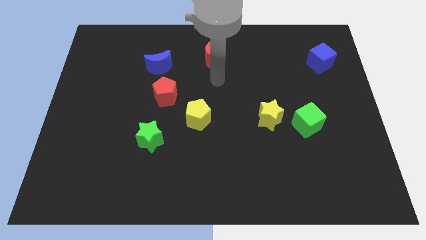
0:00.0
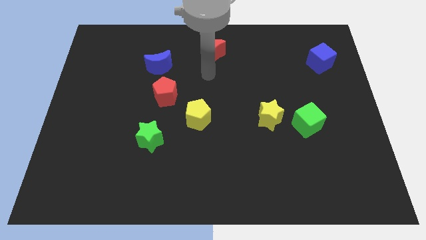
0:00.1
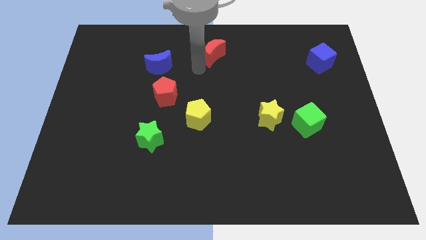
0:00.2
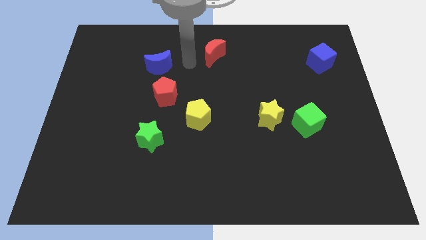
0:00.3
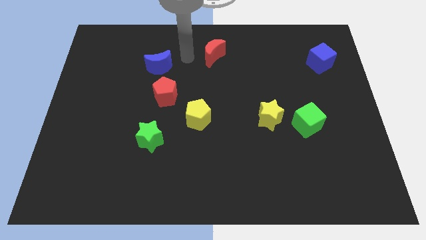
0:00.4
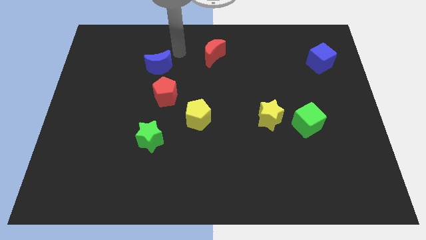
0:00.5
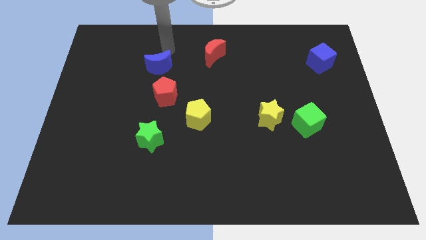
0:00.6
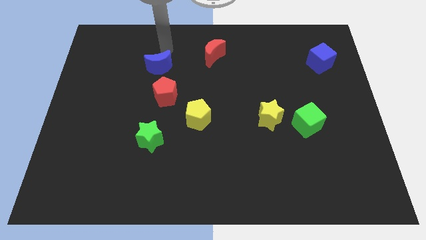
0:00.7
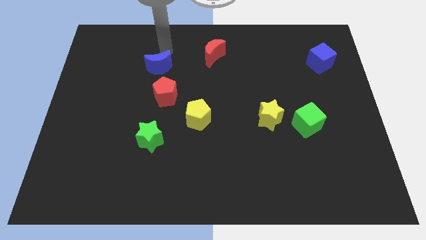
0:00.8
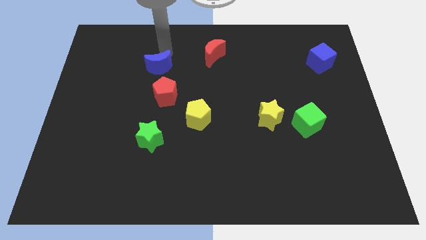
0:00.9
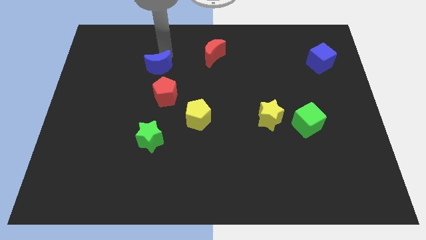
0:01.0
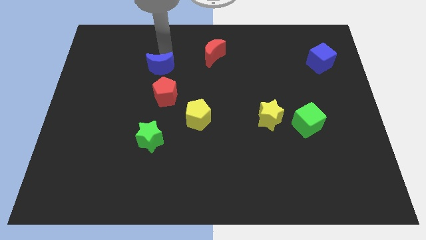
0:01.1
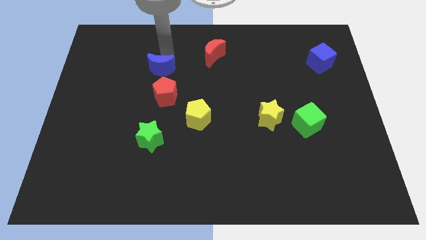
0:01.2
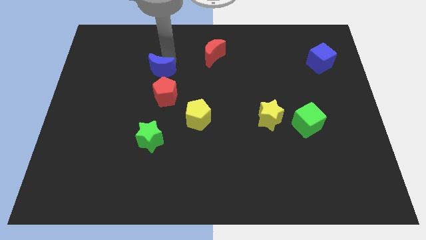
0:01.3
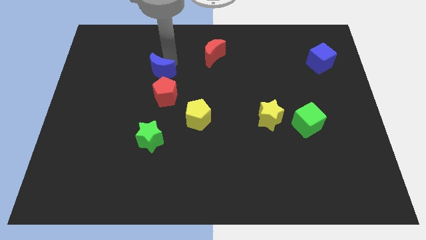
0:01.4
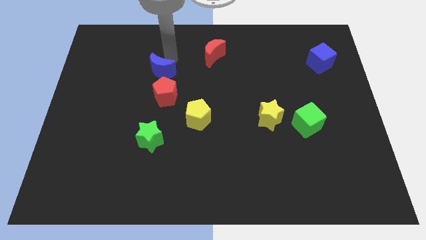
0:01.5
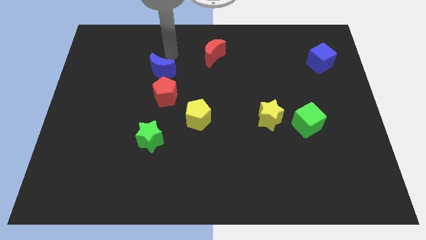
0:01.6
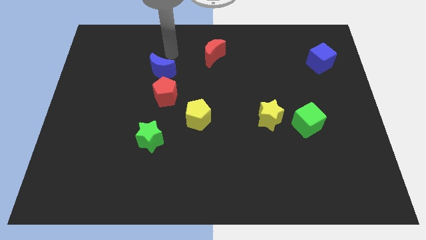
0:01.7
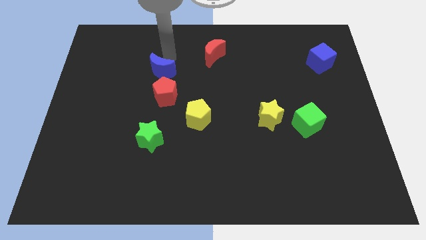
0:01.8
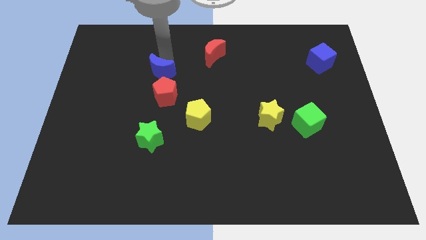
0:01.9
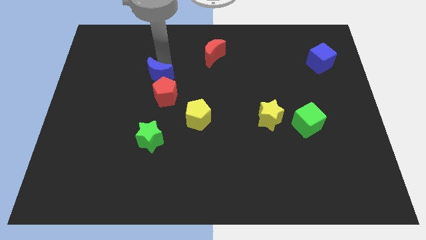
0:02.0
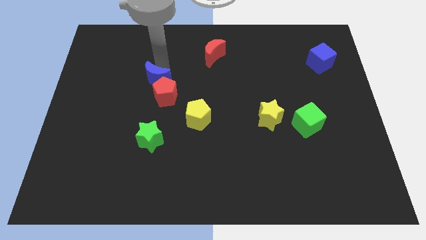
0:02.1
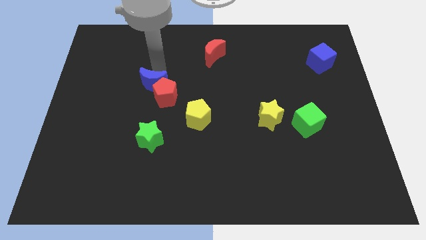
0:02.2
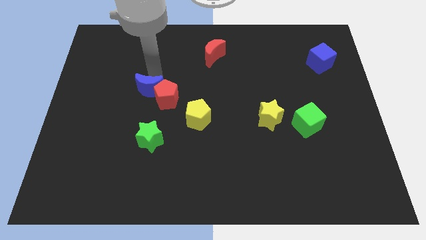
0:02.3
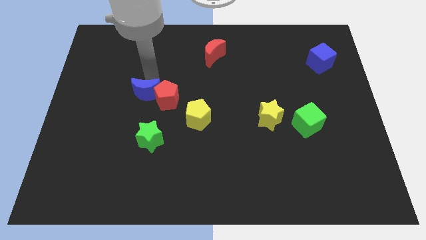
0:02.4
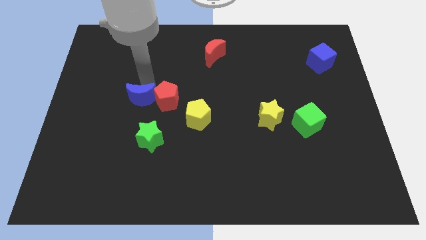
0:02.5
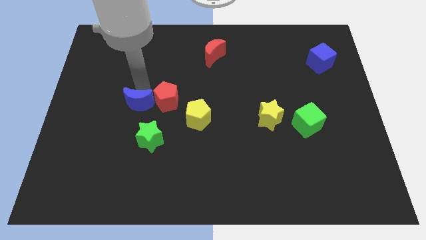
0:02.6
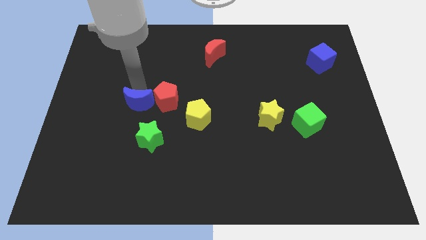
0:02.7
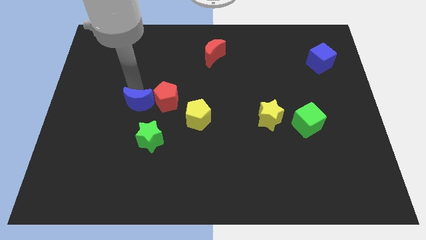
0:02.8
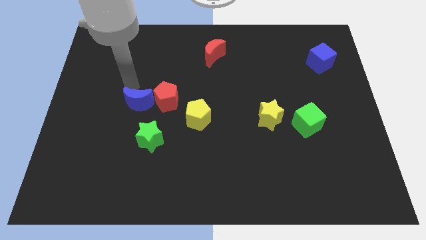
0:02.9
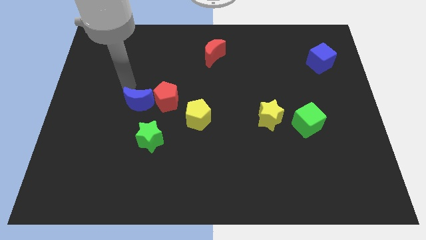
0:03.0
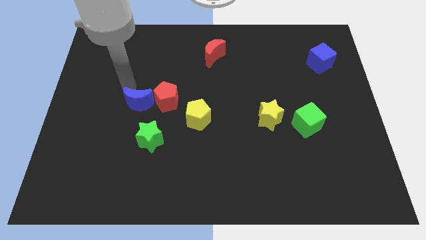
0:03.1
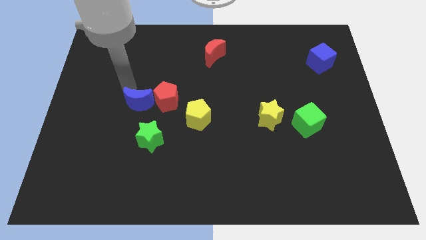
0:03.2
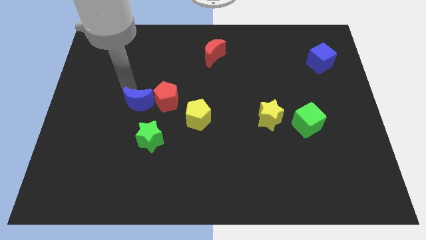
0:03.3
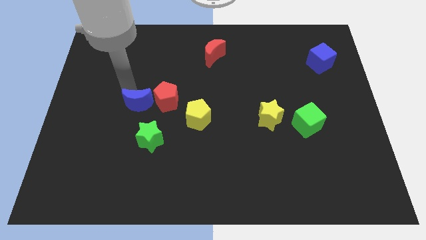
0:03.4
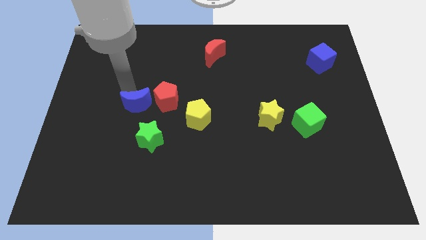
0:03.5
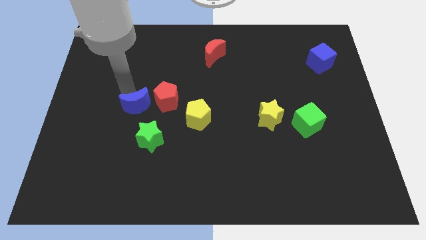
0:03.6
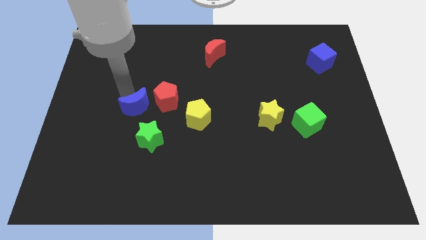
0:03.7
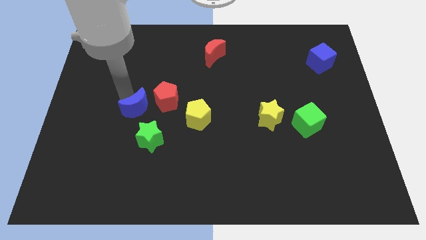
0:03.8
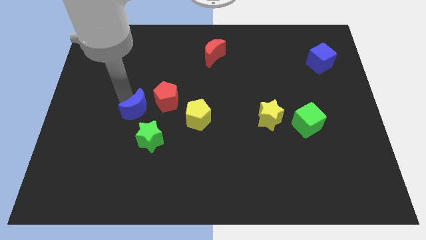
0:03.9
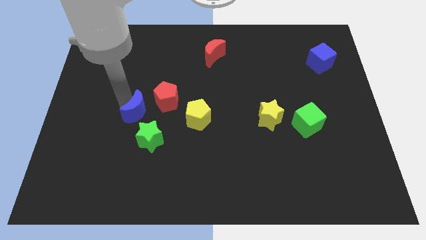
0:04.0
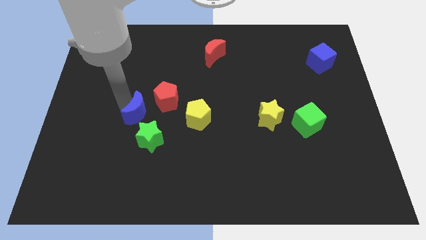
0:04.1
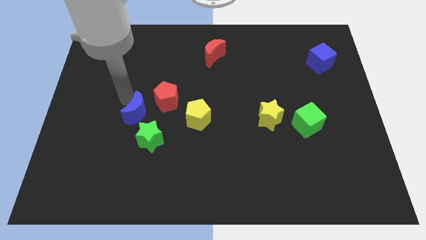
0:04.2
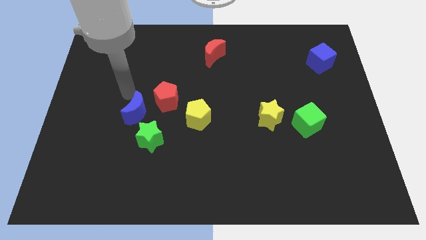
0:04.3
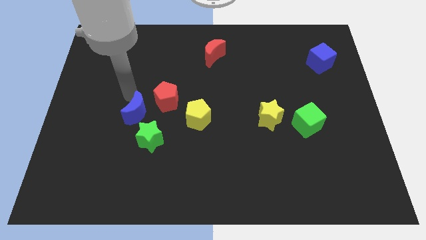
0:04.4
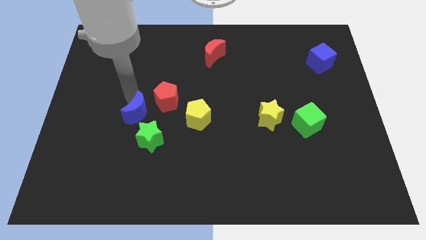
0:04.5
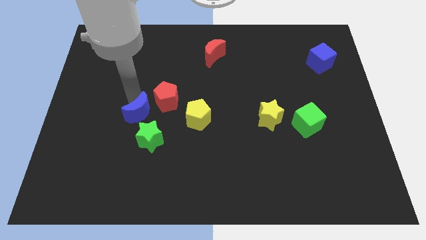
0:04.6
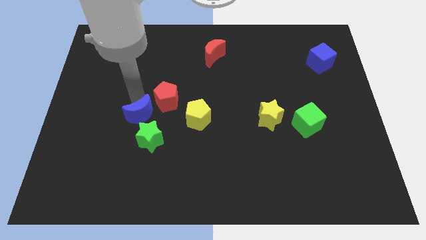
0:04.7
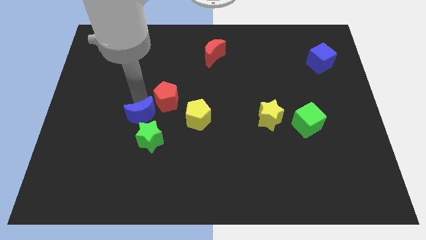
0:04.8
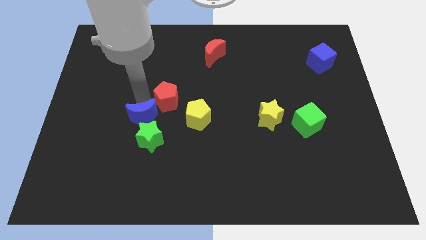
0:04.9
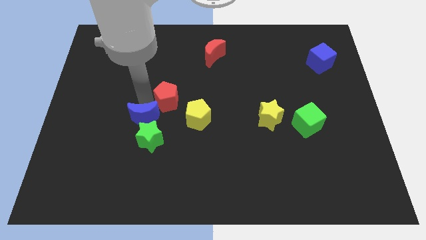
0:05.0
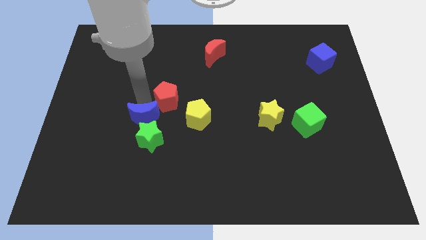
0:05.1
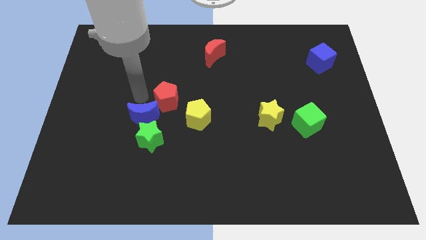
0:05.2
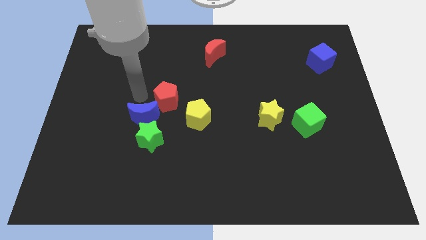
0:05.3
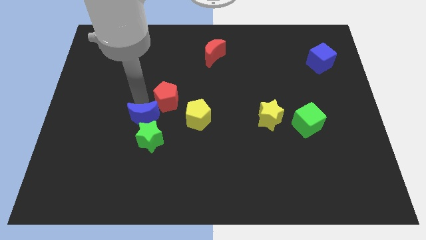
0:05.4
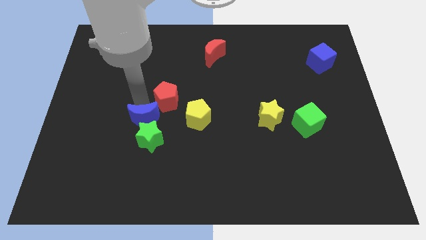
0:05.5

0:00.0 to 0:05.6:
slide the blue moon towards the green star

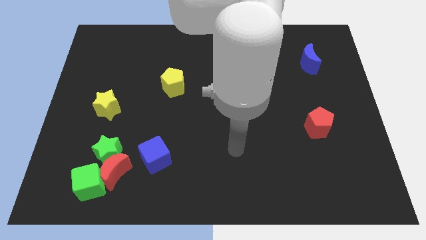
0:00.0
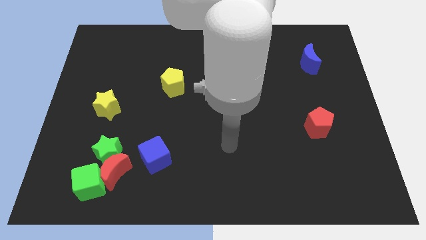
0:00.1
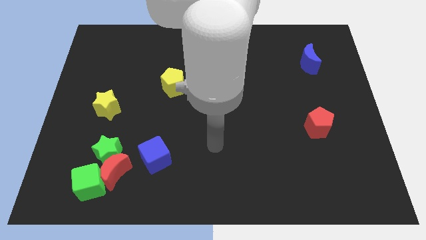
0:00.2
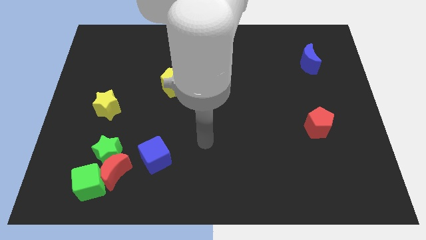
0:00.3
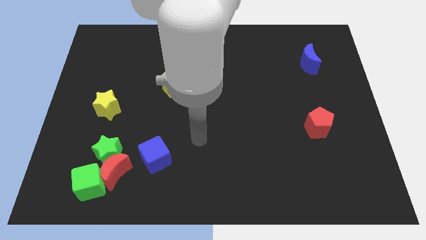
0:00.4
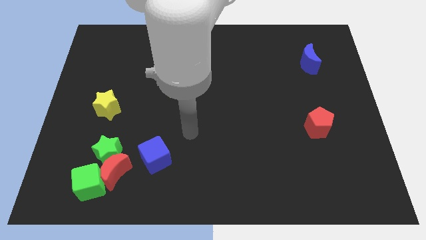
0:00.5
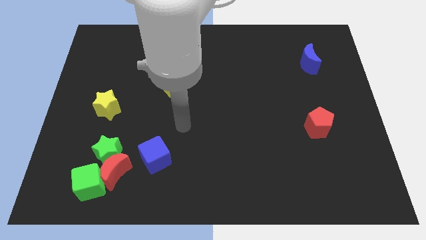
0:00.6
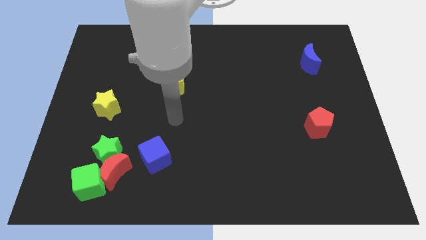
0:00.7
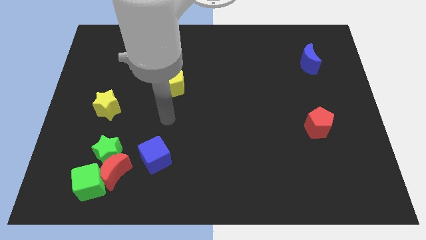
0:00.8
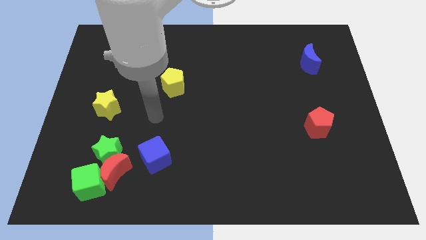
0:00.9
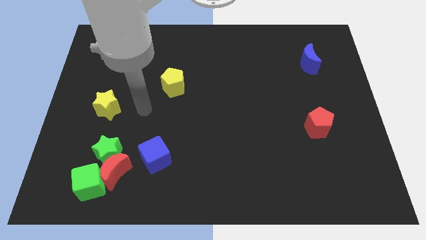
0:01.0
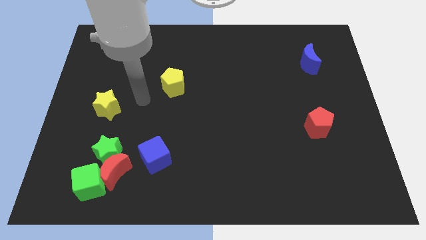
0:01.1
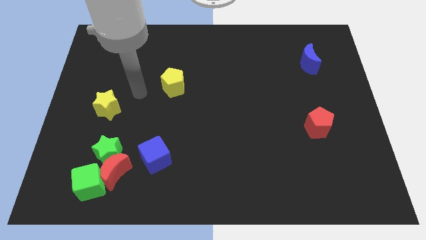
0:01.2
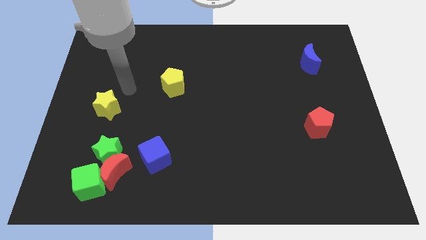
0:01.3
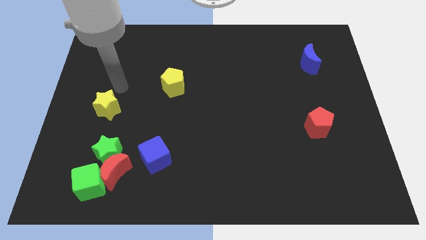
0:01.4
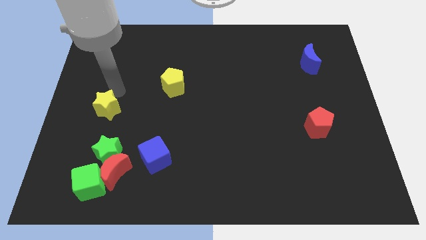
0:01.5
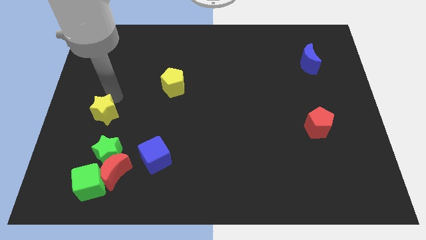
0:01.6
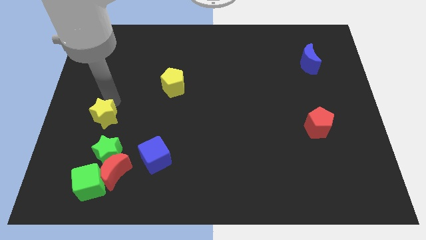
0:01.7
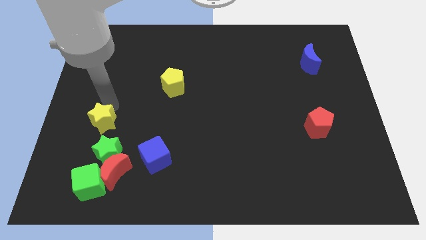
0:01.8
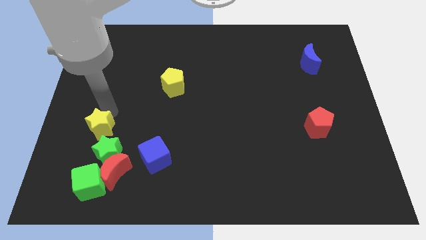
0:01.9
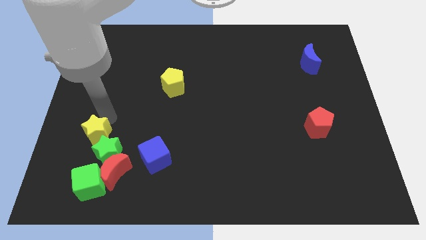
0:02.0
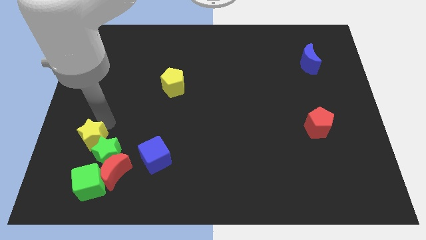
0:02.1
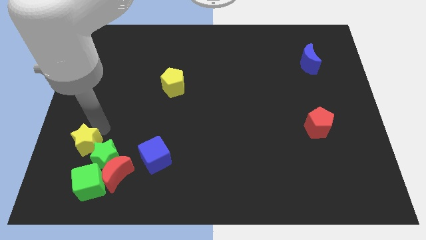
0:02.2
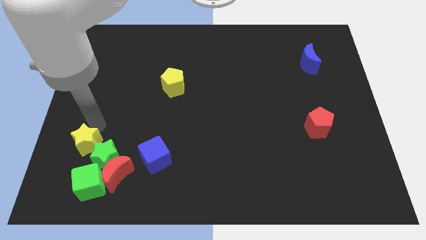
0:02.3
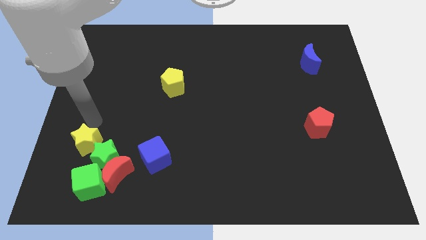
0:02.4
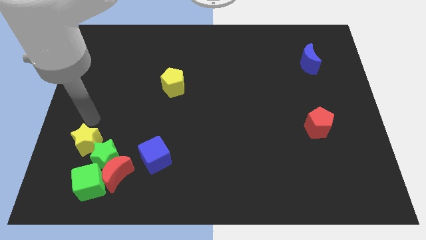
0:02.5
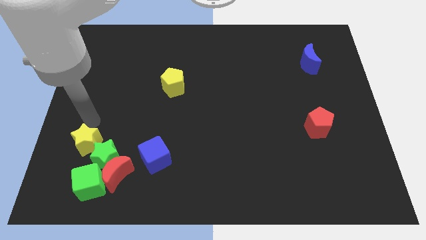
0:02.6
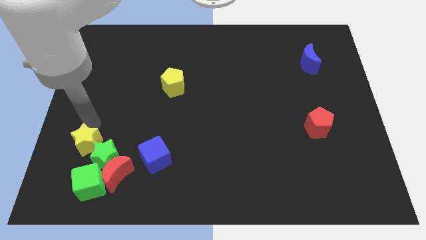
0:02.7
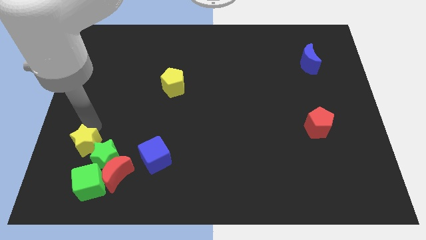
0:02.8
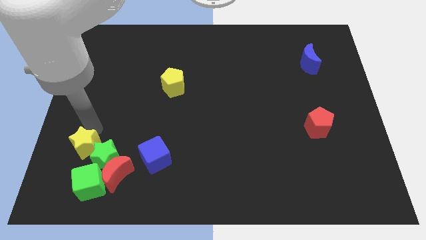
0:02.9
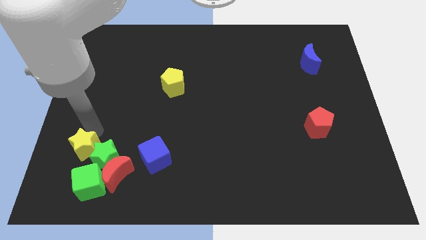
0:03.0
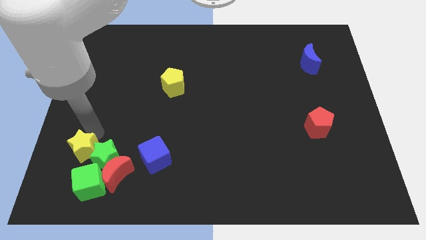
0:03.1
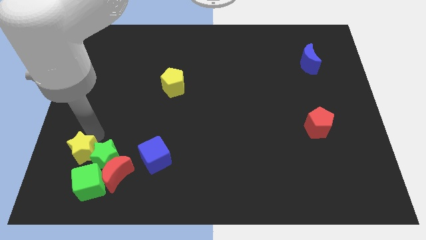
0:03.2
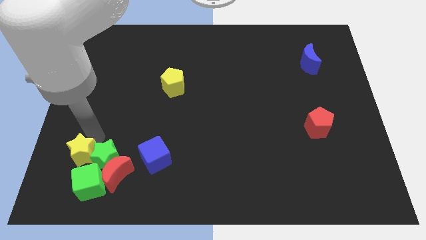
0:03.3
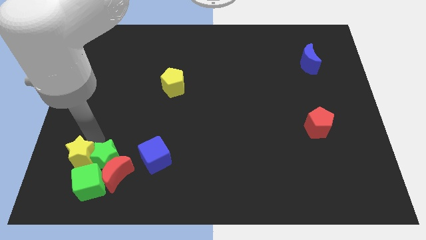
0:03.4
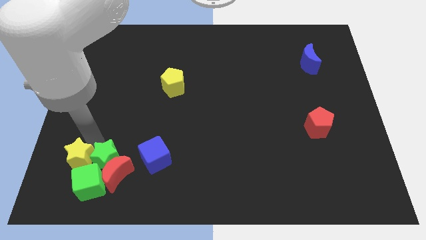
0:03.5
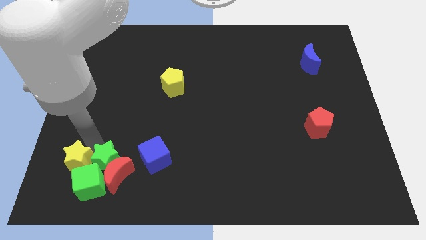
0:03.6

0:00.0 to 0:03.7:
put the yellow star next to the green cube
